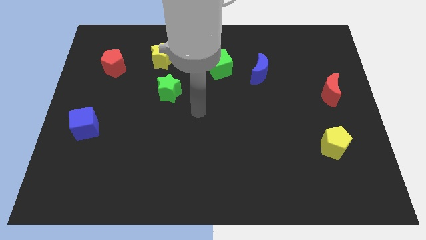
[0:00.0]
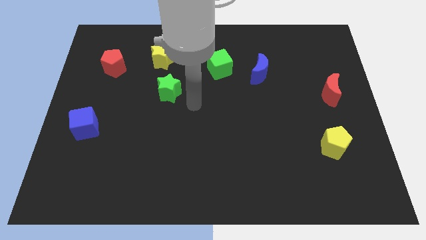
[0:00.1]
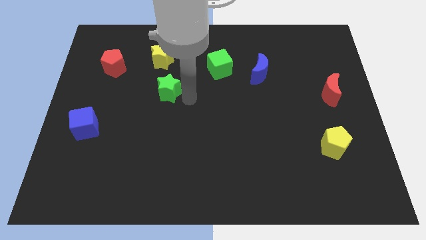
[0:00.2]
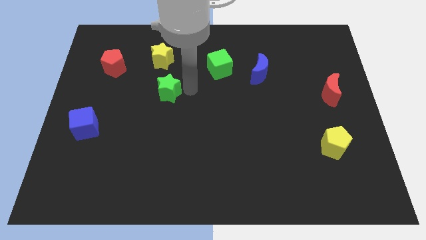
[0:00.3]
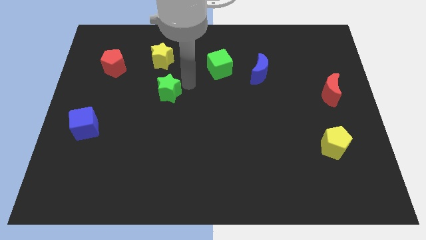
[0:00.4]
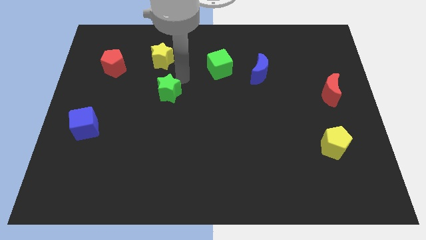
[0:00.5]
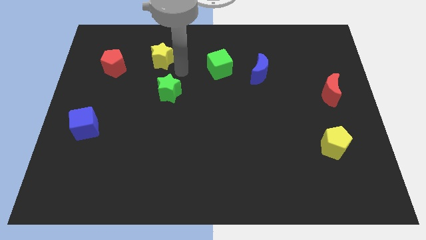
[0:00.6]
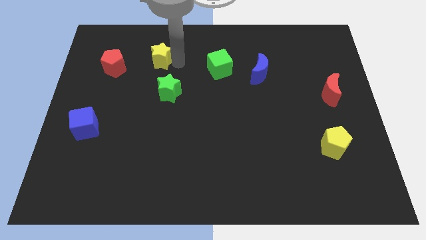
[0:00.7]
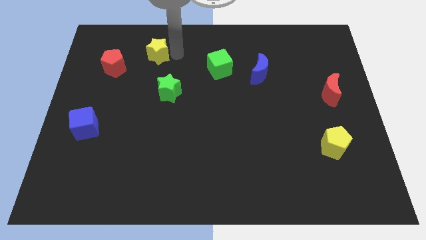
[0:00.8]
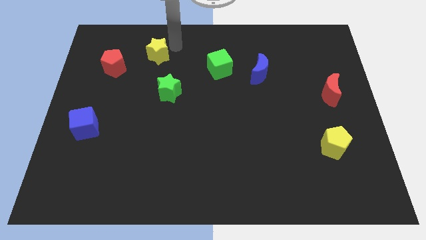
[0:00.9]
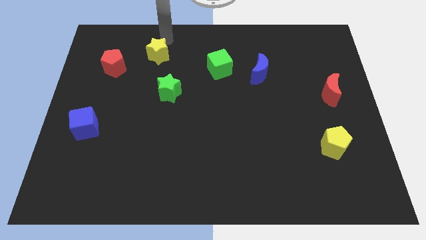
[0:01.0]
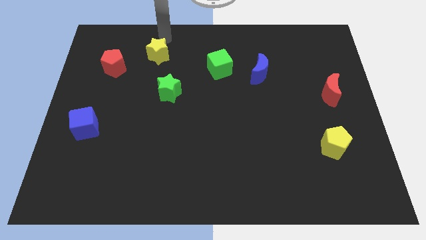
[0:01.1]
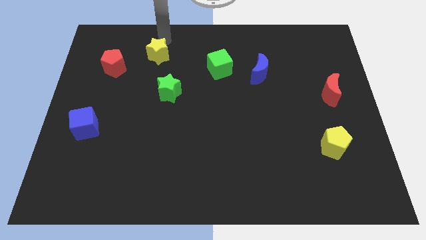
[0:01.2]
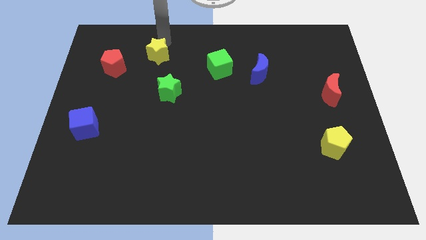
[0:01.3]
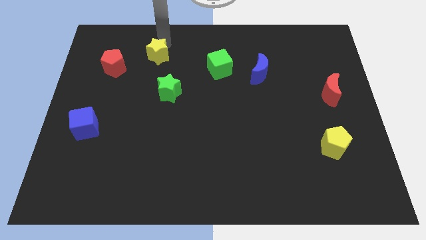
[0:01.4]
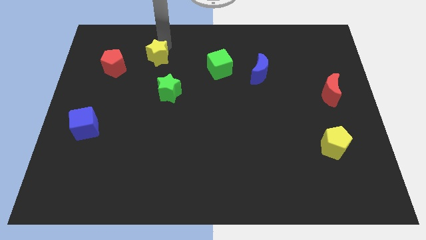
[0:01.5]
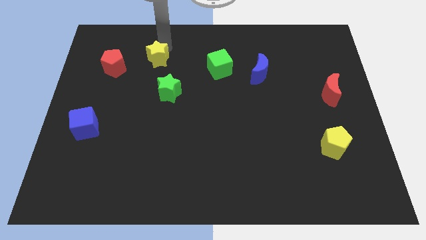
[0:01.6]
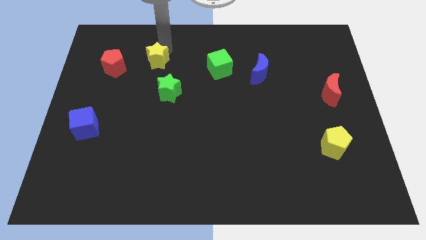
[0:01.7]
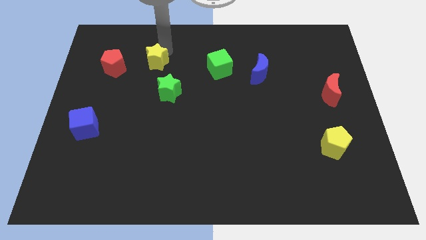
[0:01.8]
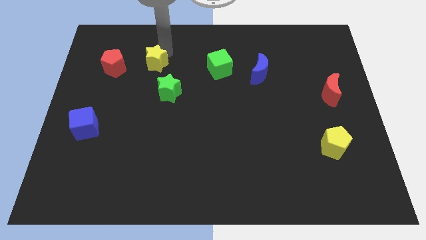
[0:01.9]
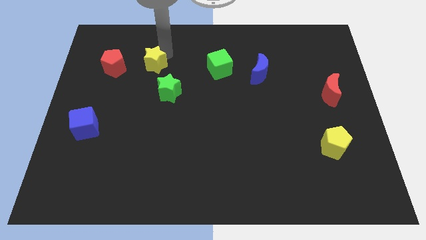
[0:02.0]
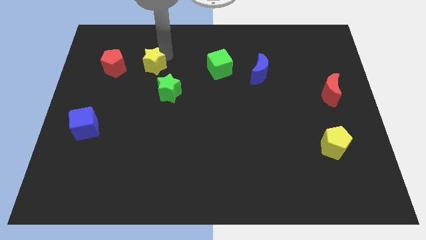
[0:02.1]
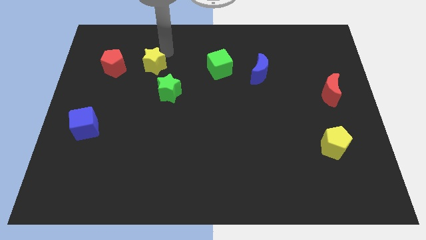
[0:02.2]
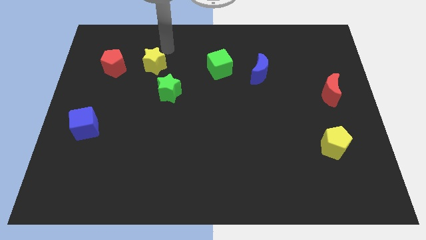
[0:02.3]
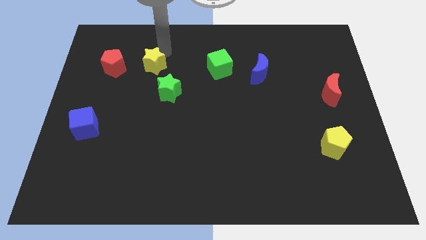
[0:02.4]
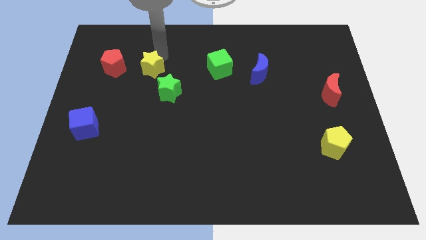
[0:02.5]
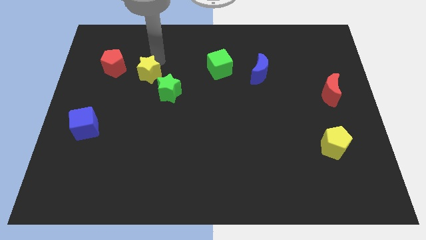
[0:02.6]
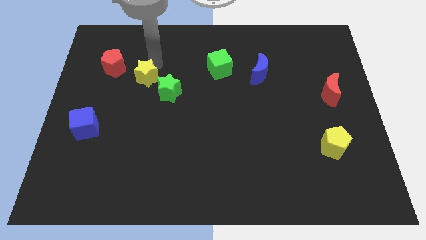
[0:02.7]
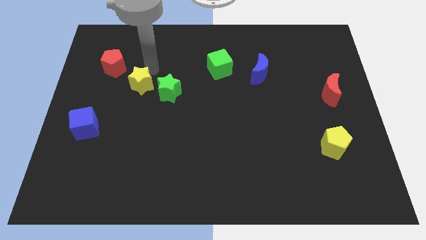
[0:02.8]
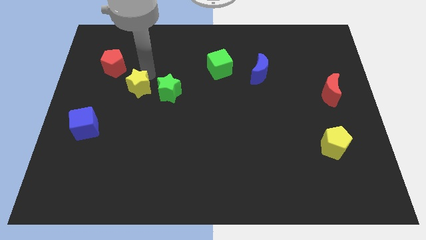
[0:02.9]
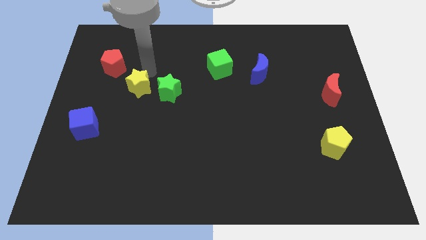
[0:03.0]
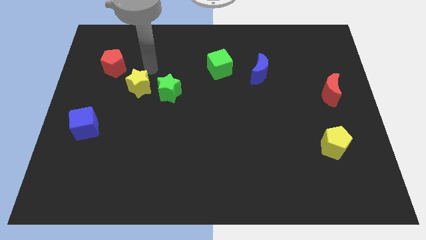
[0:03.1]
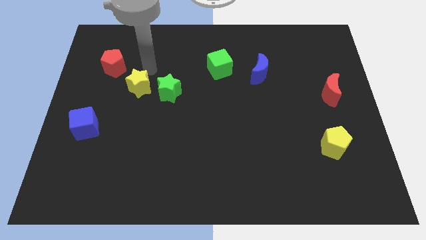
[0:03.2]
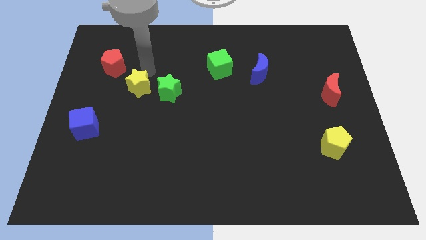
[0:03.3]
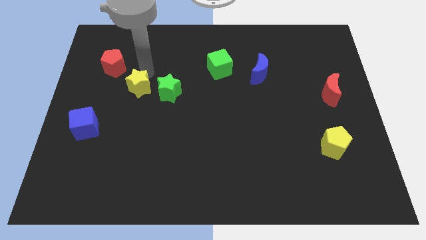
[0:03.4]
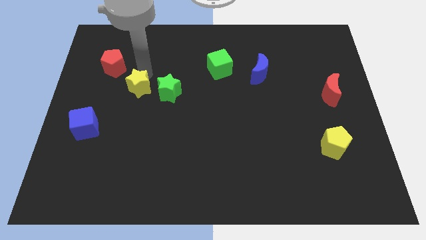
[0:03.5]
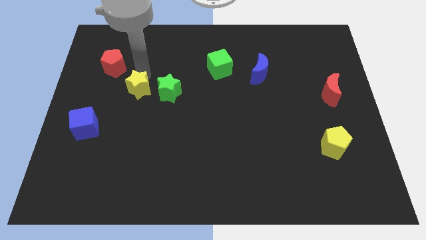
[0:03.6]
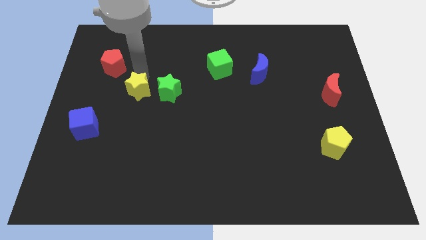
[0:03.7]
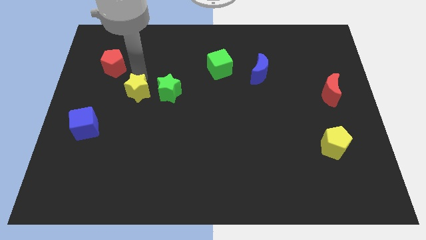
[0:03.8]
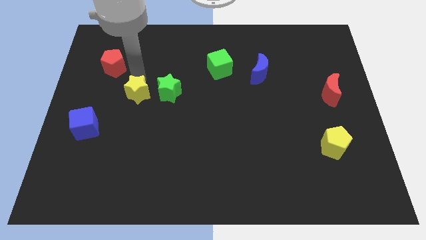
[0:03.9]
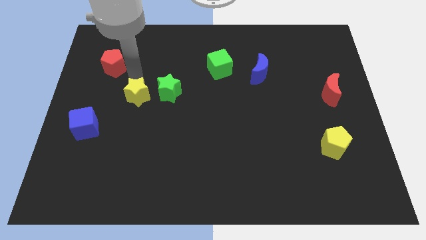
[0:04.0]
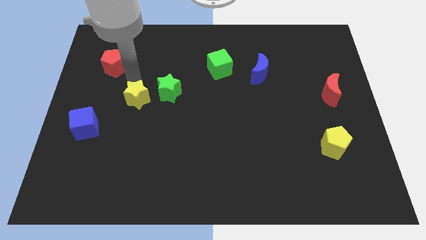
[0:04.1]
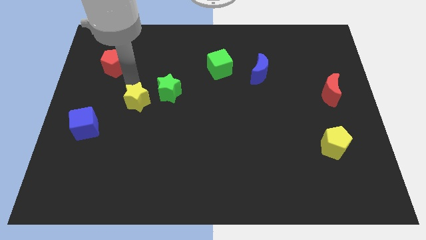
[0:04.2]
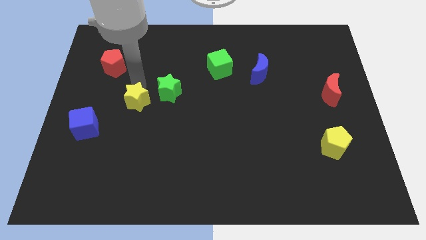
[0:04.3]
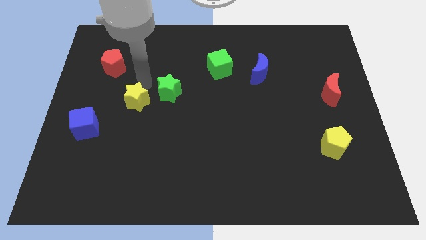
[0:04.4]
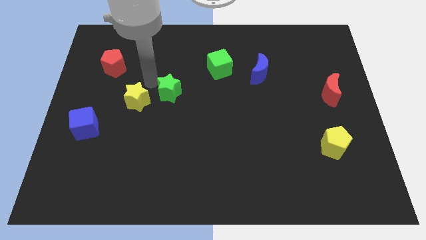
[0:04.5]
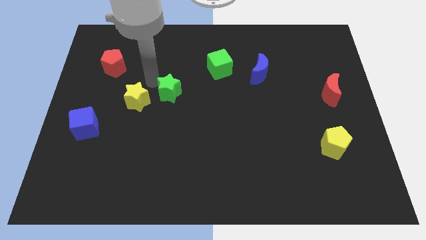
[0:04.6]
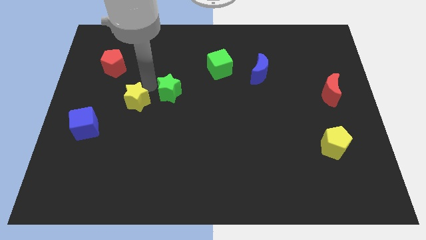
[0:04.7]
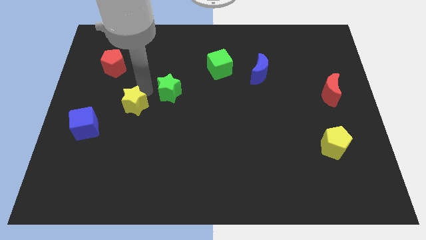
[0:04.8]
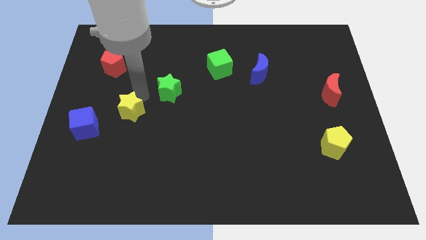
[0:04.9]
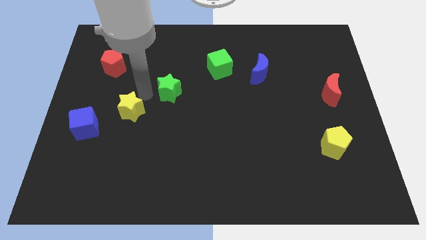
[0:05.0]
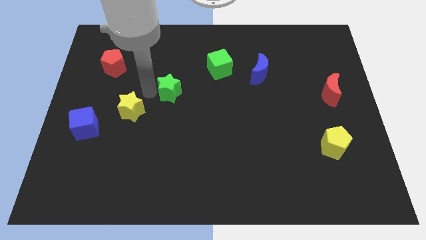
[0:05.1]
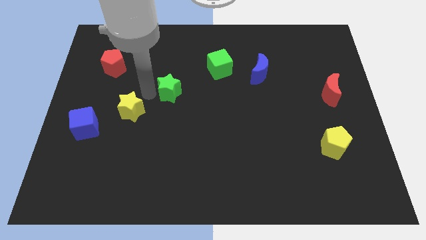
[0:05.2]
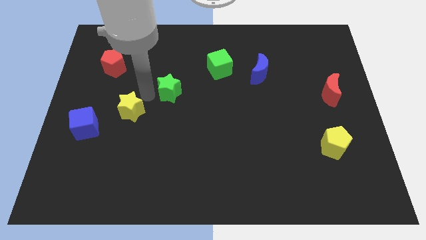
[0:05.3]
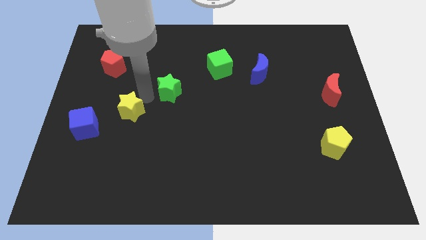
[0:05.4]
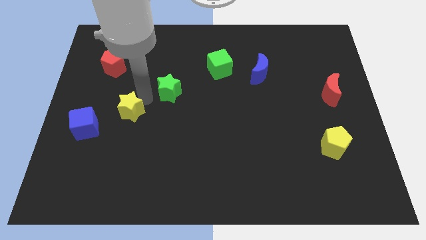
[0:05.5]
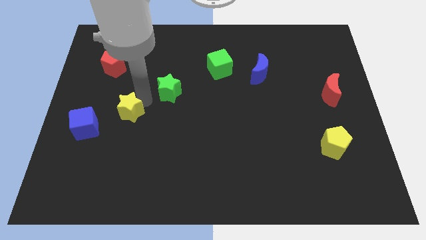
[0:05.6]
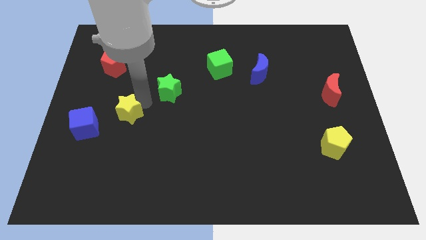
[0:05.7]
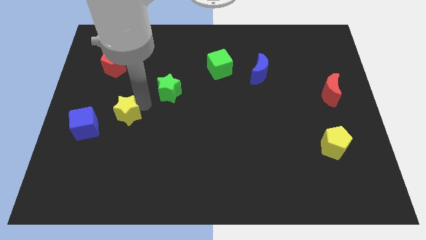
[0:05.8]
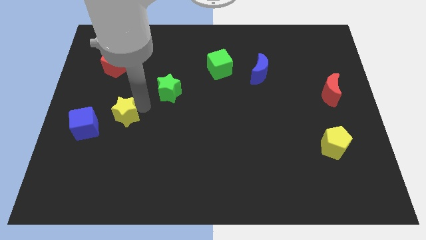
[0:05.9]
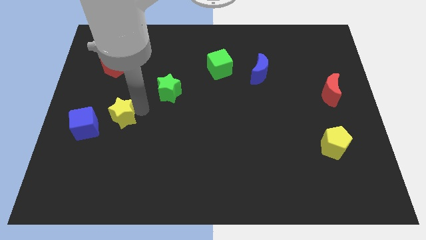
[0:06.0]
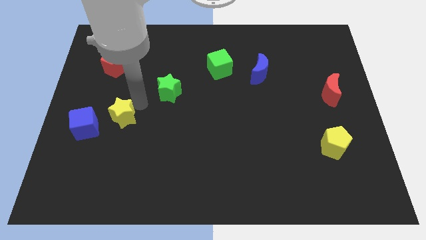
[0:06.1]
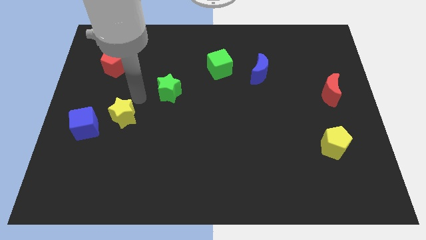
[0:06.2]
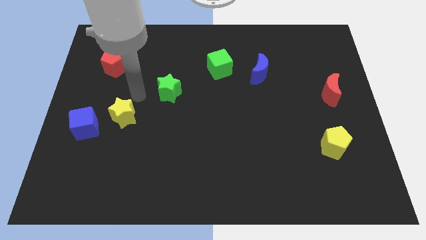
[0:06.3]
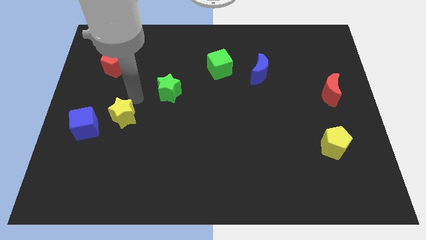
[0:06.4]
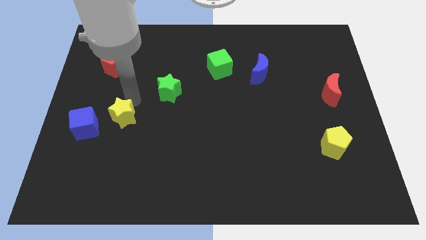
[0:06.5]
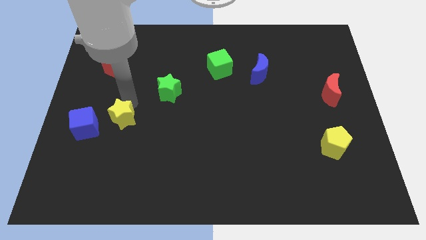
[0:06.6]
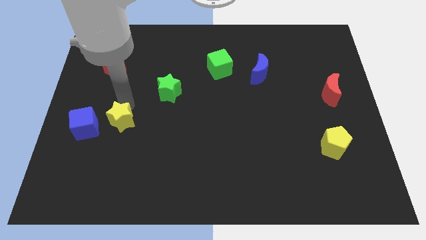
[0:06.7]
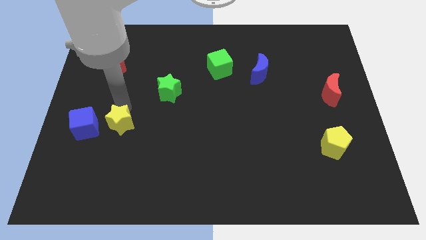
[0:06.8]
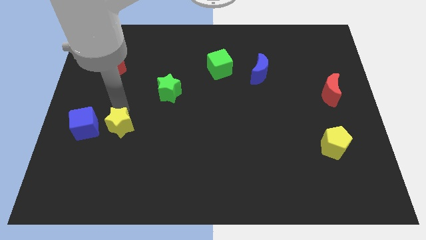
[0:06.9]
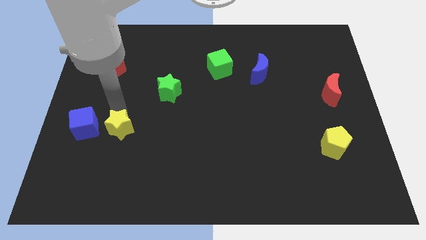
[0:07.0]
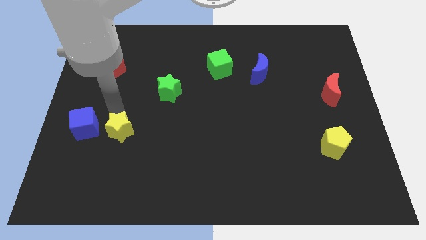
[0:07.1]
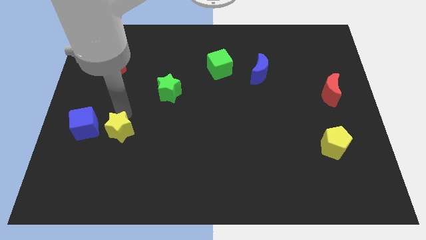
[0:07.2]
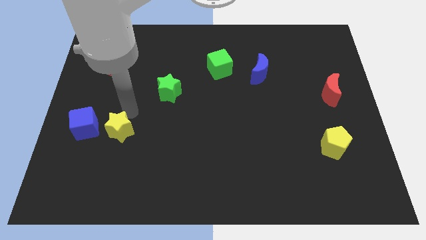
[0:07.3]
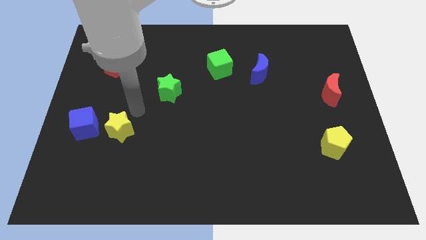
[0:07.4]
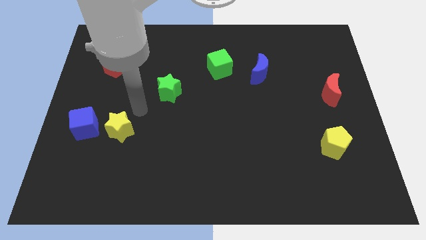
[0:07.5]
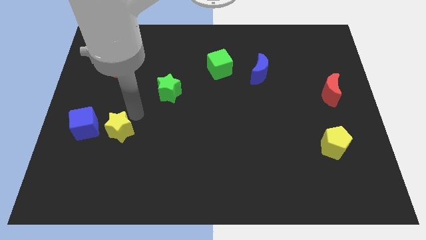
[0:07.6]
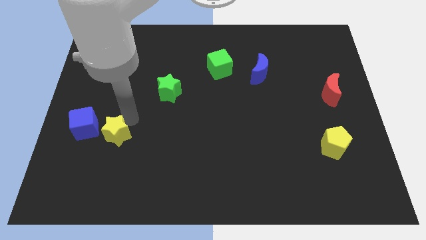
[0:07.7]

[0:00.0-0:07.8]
put the yellow star diagonally down and to the right of the blue cube
